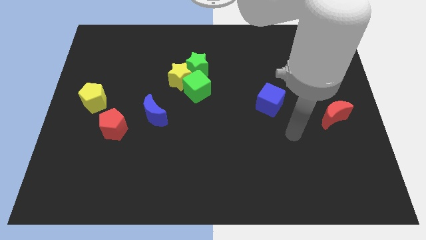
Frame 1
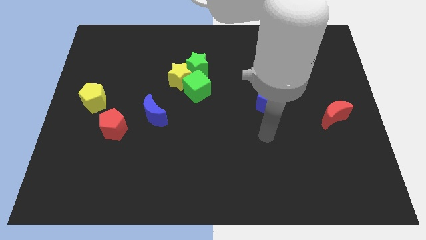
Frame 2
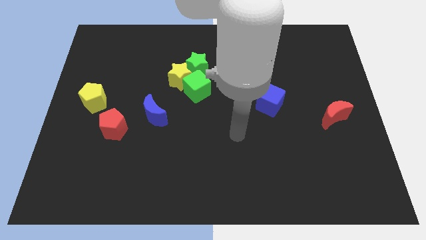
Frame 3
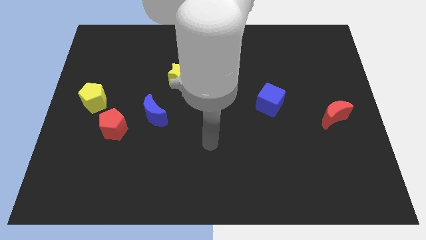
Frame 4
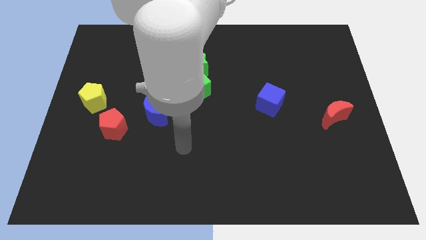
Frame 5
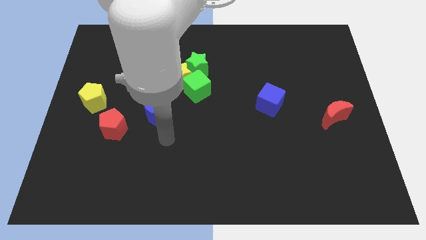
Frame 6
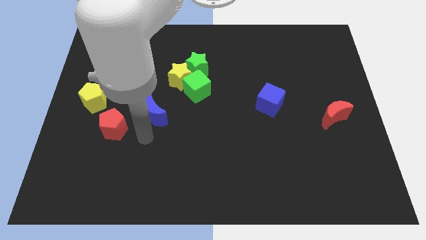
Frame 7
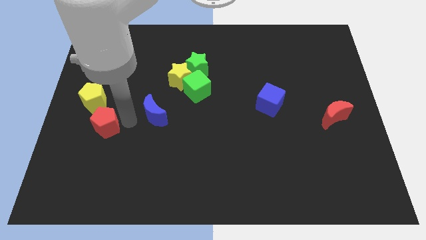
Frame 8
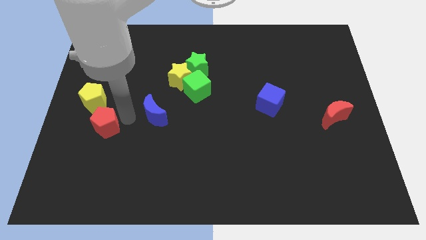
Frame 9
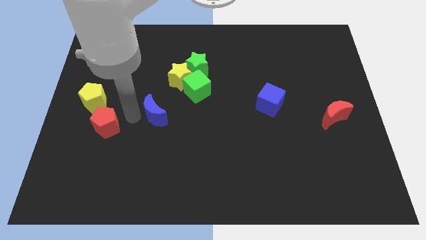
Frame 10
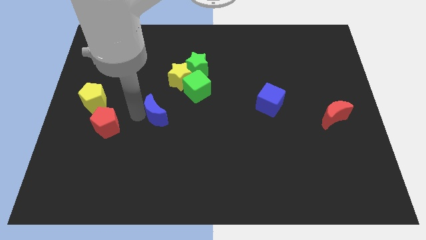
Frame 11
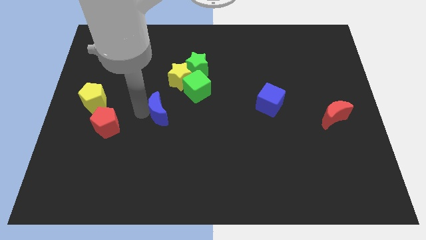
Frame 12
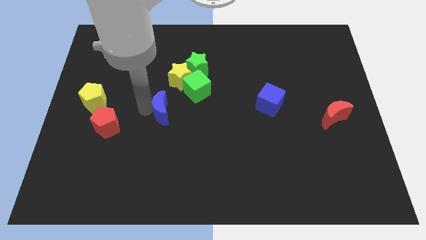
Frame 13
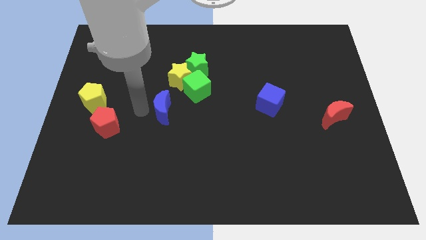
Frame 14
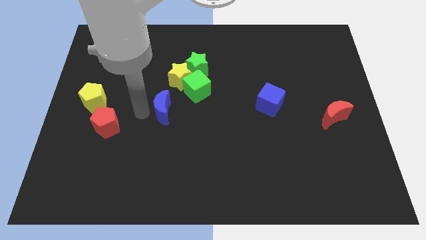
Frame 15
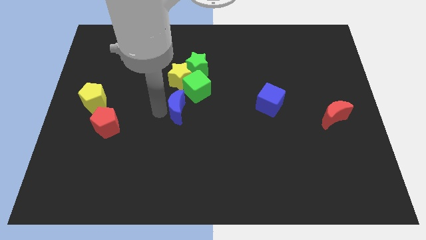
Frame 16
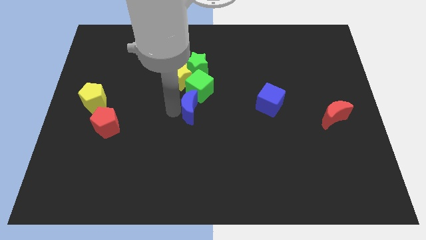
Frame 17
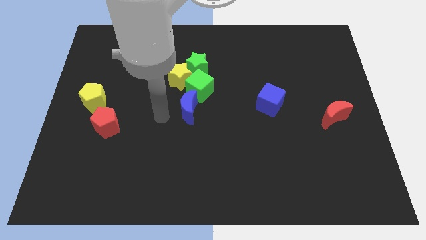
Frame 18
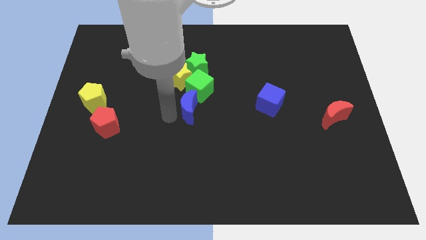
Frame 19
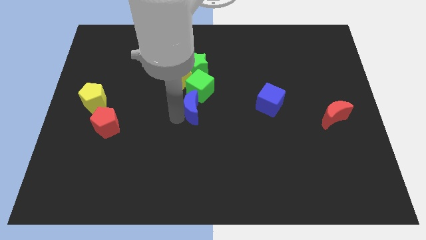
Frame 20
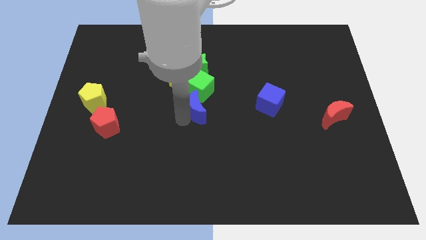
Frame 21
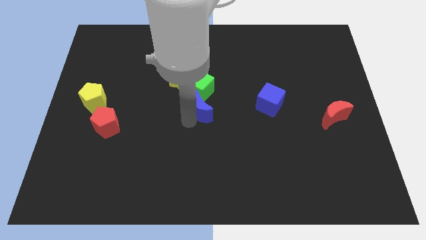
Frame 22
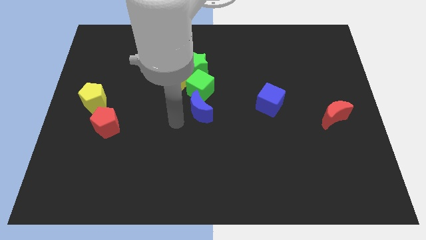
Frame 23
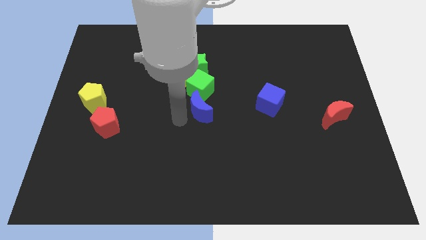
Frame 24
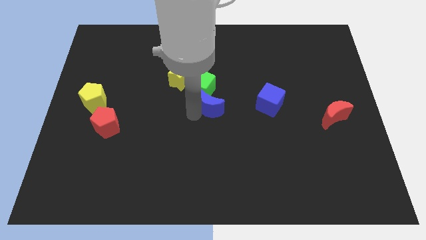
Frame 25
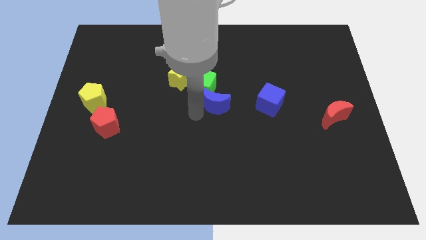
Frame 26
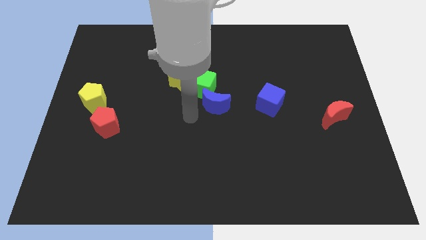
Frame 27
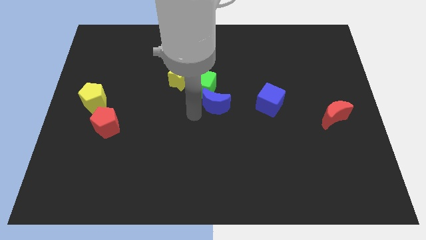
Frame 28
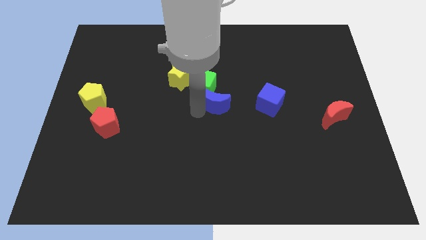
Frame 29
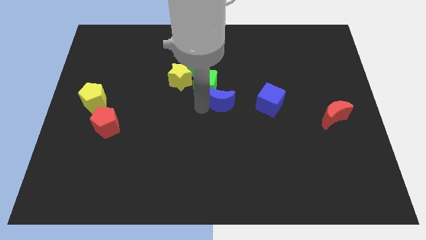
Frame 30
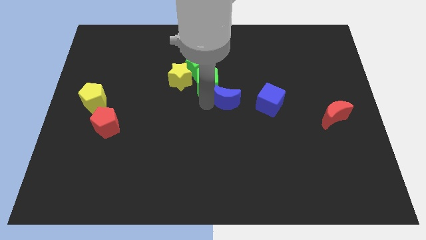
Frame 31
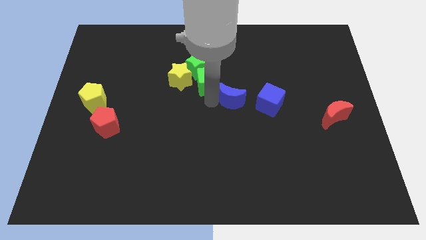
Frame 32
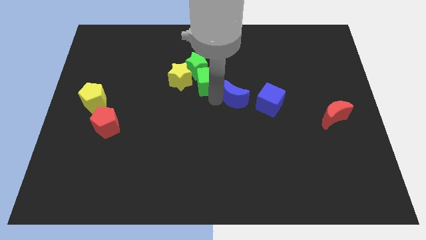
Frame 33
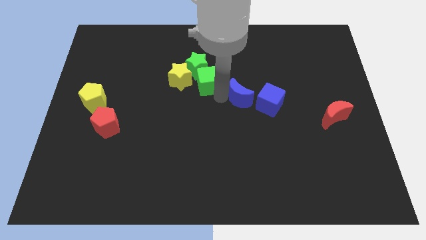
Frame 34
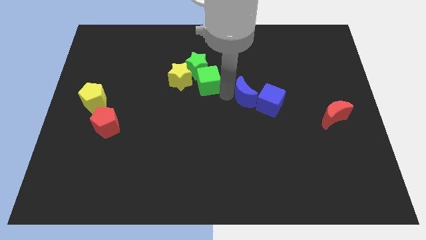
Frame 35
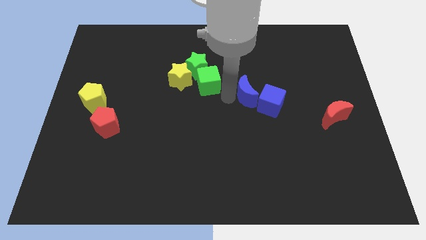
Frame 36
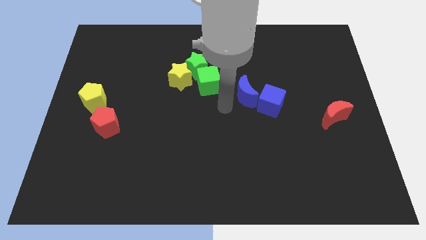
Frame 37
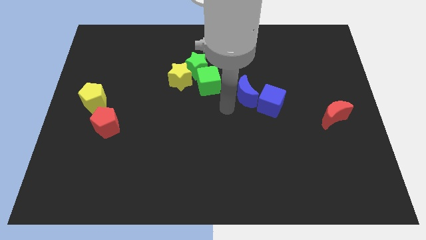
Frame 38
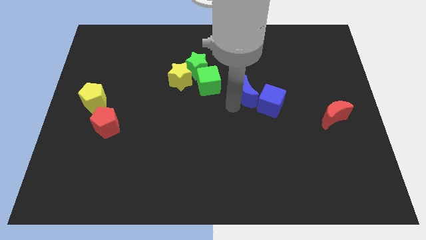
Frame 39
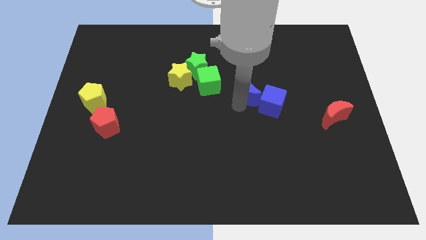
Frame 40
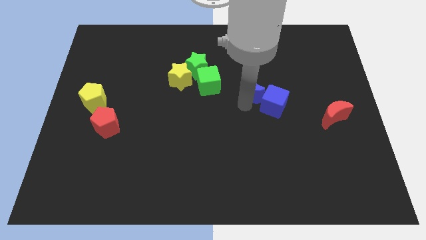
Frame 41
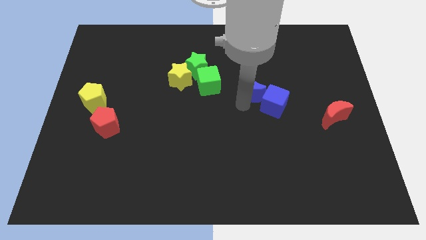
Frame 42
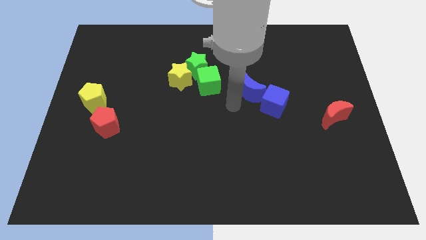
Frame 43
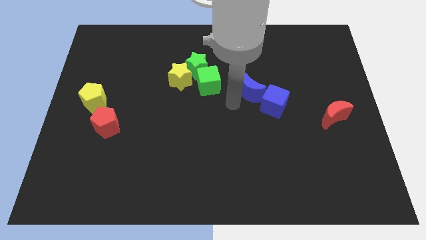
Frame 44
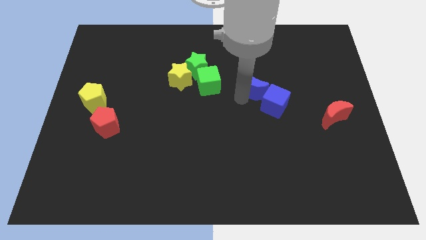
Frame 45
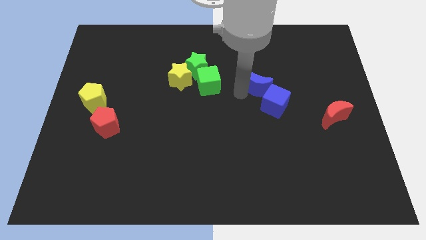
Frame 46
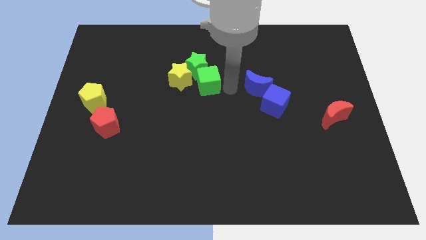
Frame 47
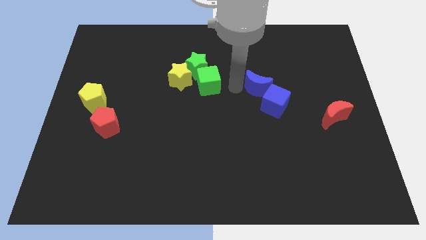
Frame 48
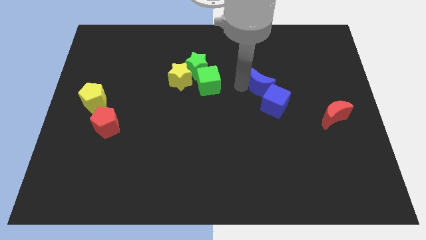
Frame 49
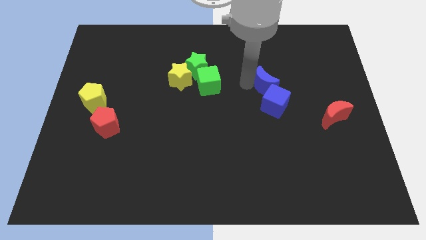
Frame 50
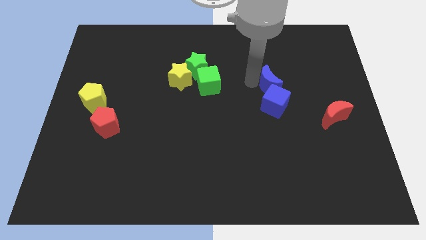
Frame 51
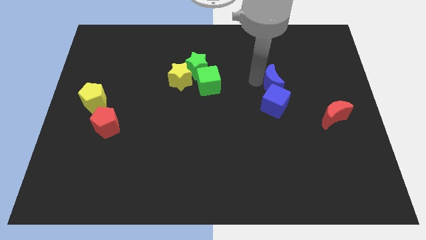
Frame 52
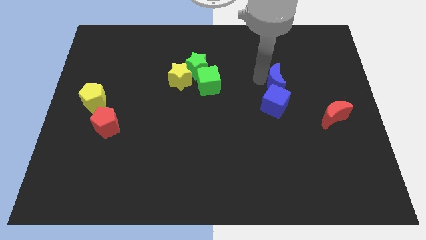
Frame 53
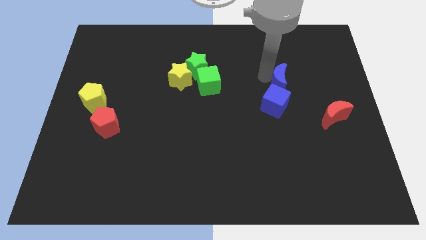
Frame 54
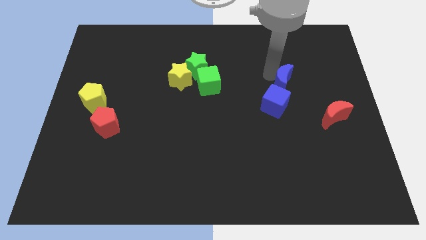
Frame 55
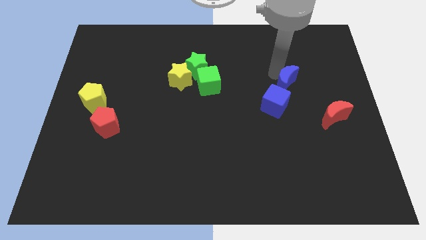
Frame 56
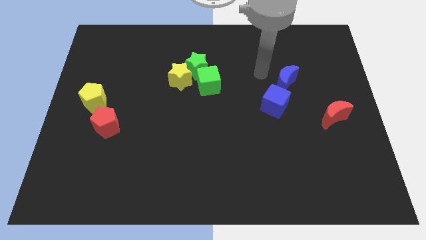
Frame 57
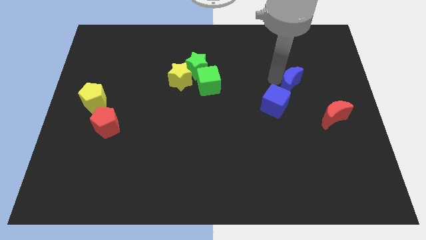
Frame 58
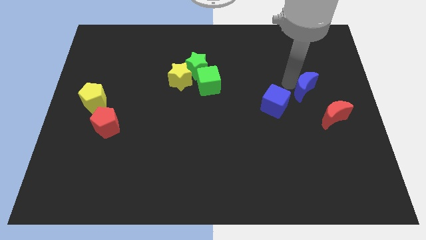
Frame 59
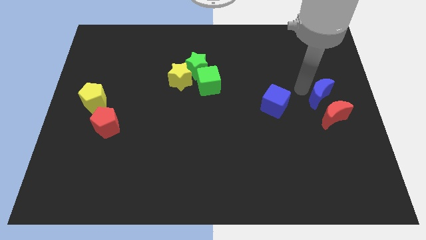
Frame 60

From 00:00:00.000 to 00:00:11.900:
push the blue moon to the right side of the board
